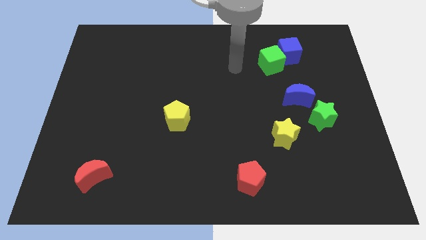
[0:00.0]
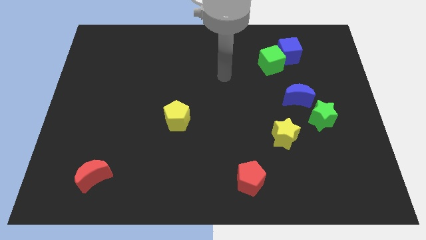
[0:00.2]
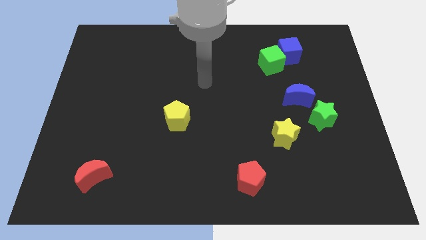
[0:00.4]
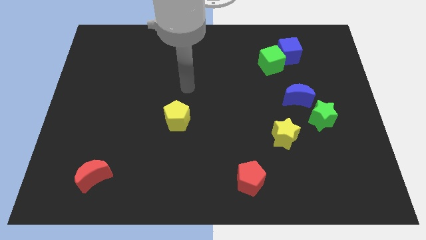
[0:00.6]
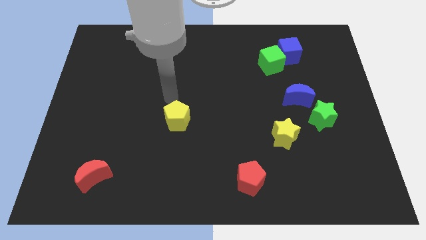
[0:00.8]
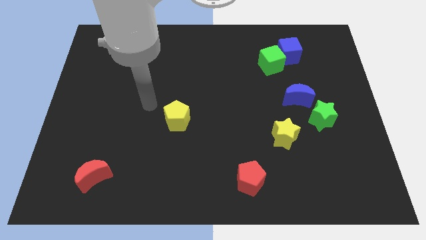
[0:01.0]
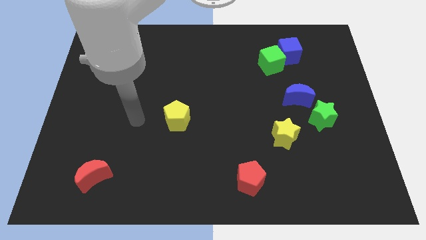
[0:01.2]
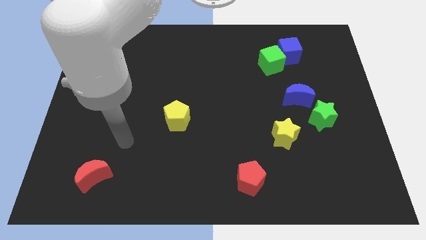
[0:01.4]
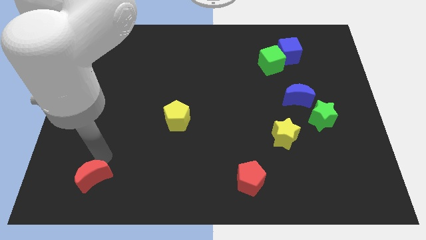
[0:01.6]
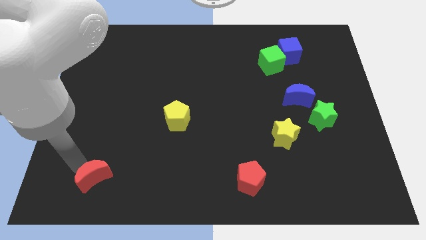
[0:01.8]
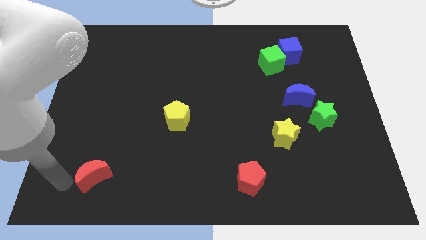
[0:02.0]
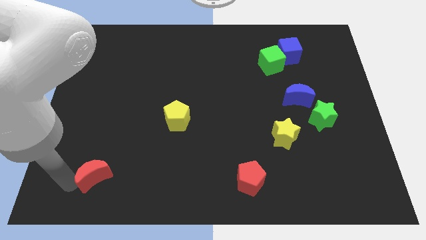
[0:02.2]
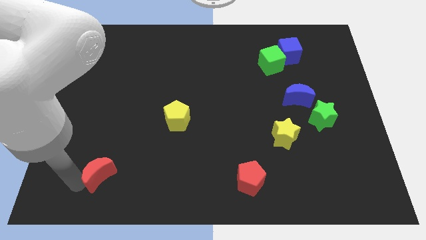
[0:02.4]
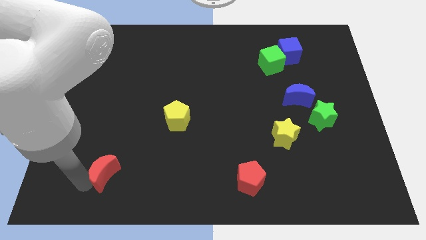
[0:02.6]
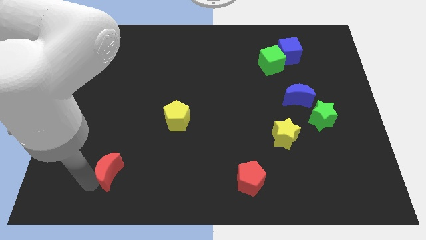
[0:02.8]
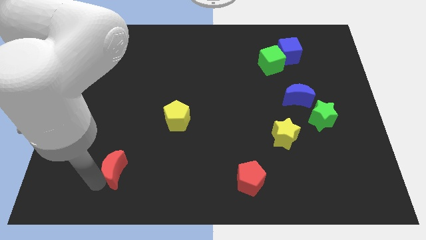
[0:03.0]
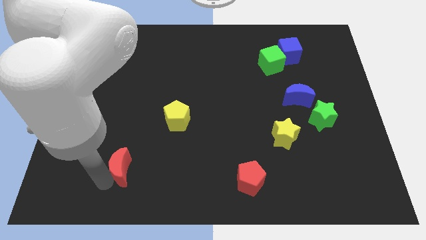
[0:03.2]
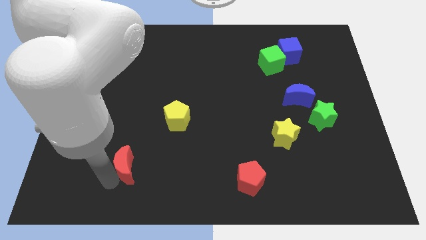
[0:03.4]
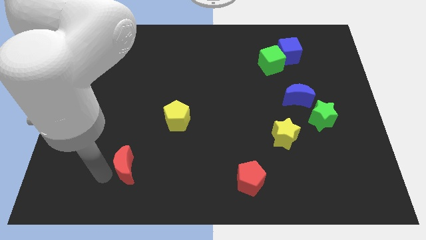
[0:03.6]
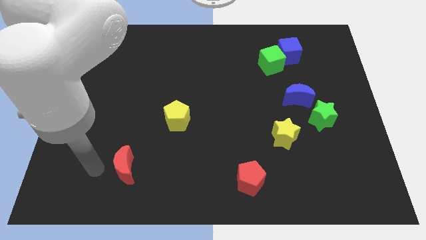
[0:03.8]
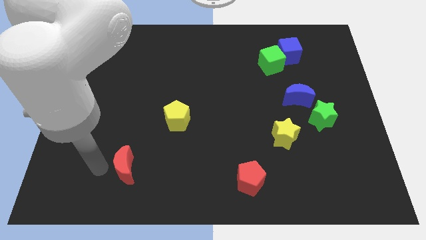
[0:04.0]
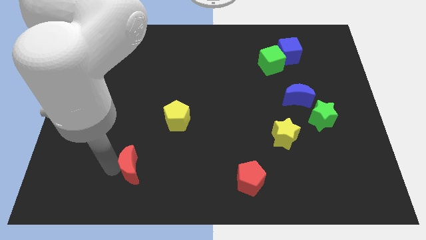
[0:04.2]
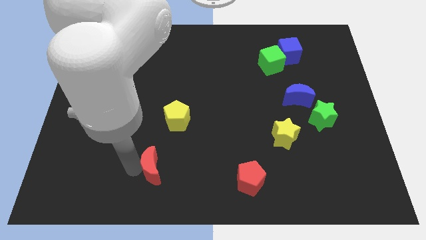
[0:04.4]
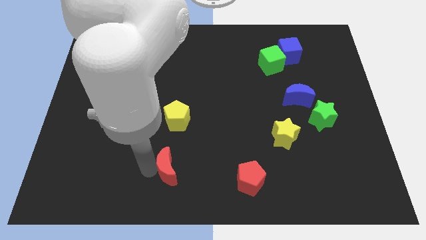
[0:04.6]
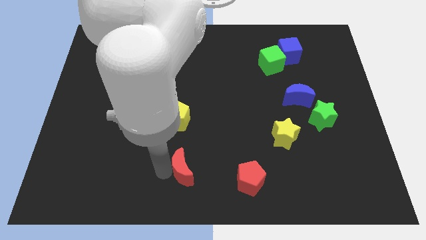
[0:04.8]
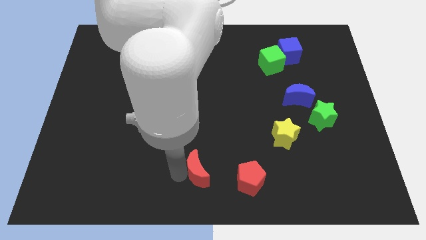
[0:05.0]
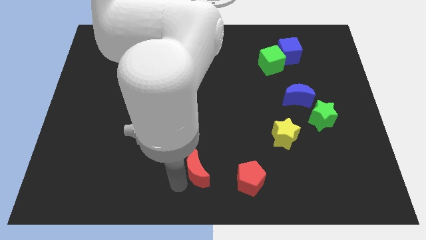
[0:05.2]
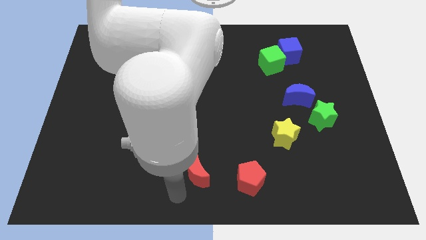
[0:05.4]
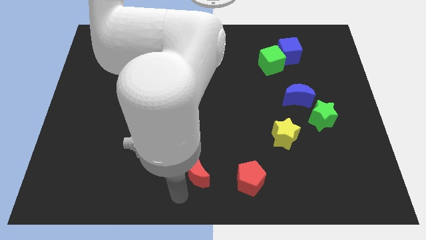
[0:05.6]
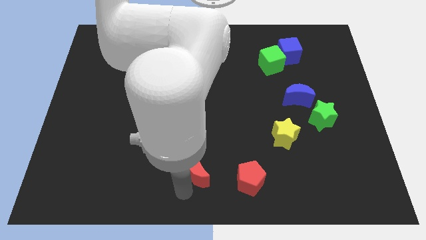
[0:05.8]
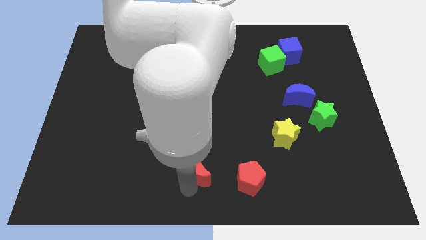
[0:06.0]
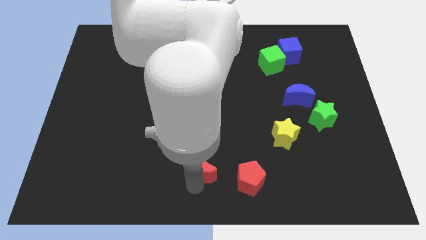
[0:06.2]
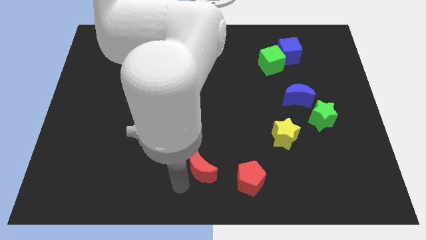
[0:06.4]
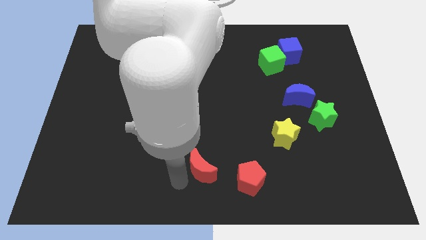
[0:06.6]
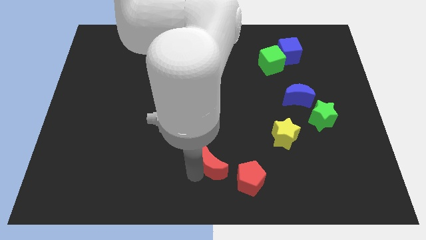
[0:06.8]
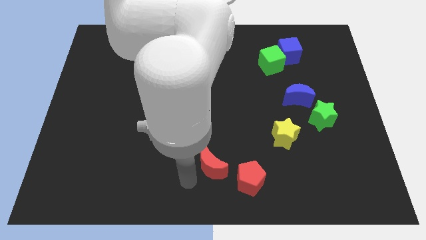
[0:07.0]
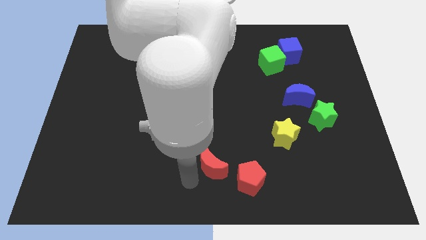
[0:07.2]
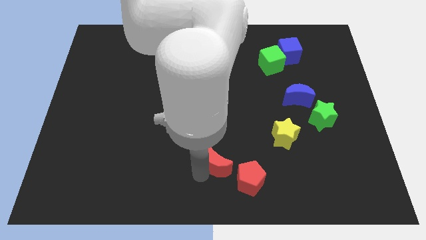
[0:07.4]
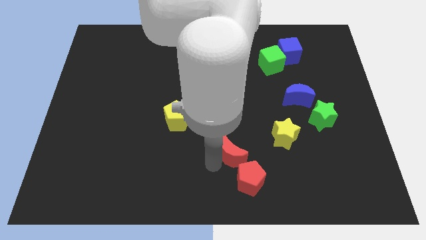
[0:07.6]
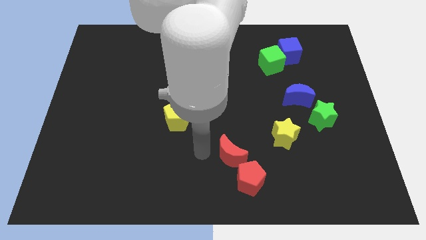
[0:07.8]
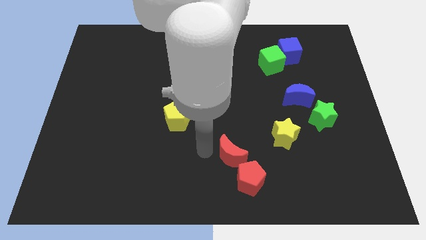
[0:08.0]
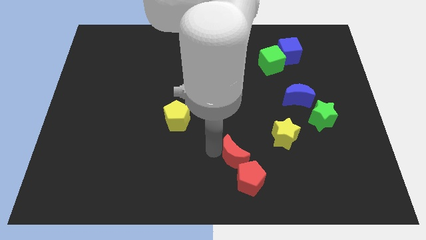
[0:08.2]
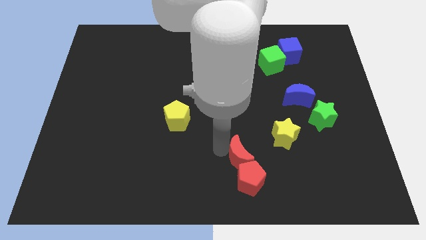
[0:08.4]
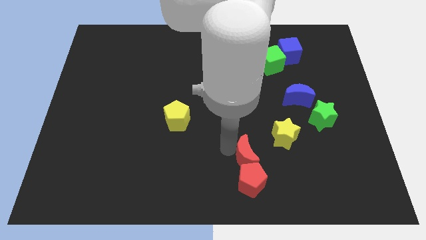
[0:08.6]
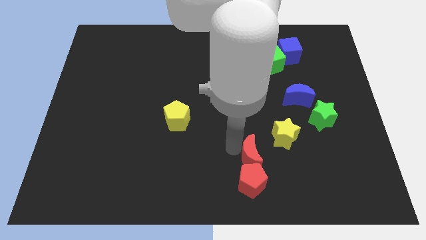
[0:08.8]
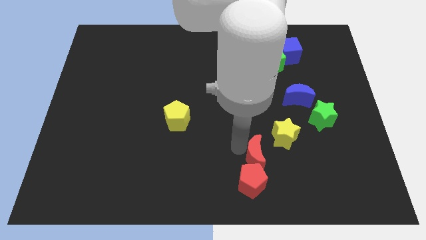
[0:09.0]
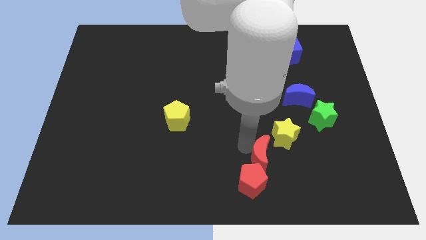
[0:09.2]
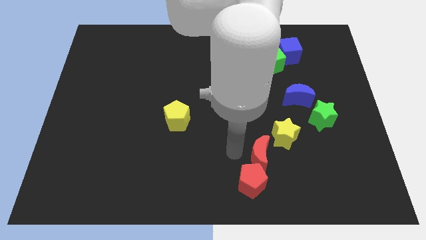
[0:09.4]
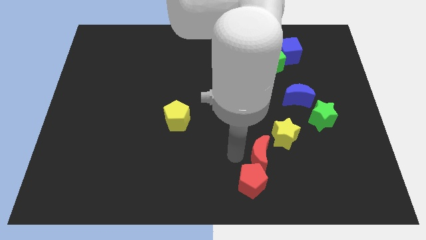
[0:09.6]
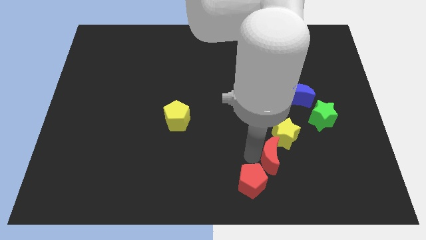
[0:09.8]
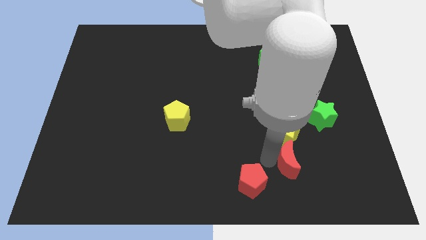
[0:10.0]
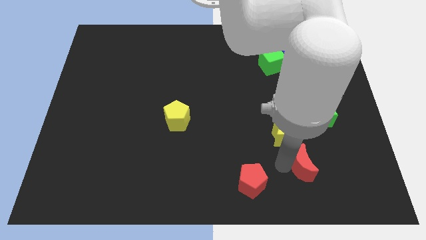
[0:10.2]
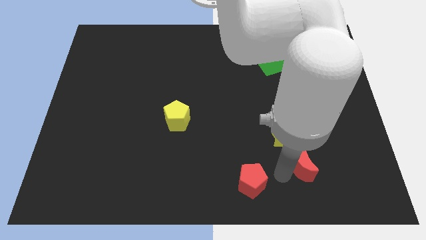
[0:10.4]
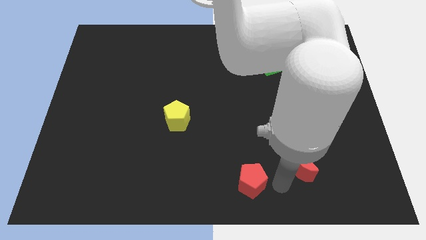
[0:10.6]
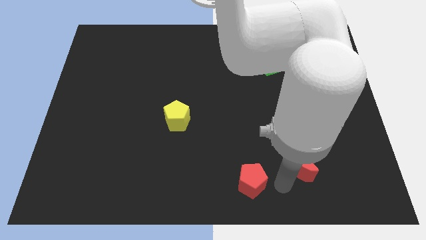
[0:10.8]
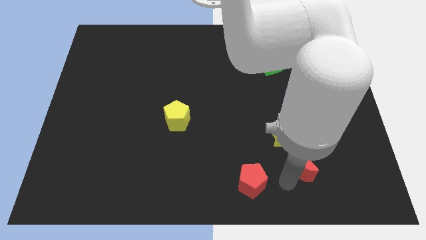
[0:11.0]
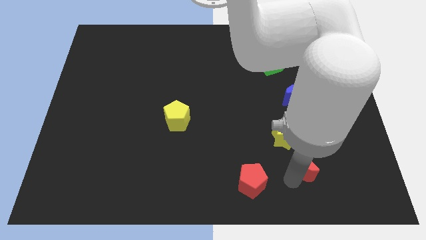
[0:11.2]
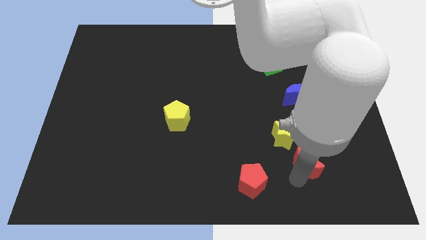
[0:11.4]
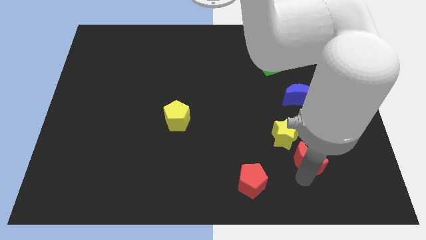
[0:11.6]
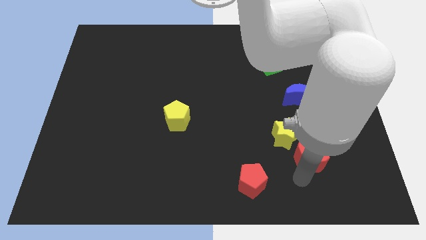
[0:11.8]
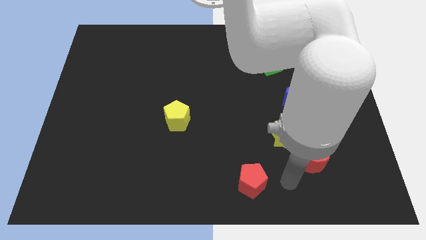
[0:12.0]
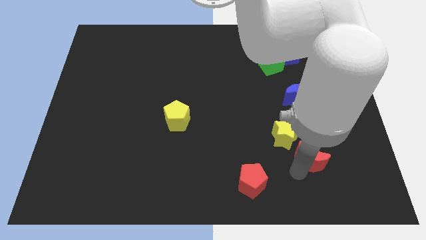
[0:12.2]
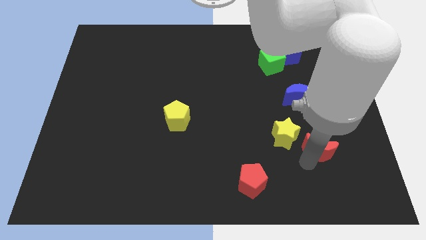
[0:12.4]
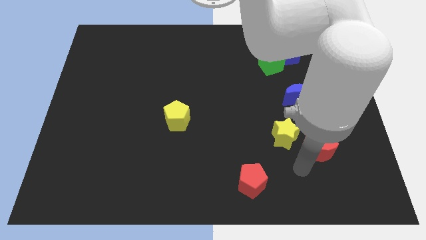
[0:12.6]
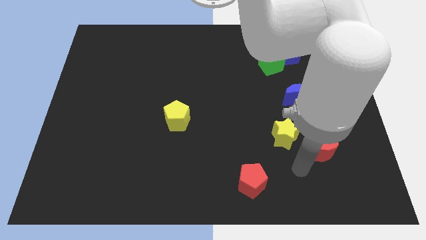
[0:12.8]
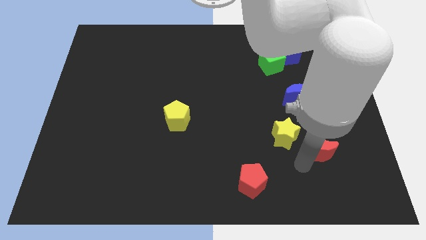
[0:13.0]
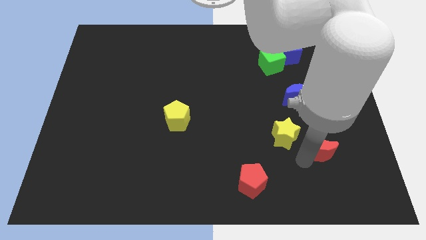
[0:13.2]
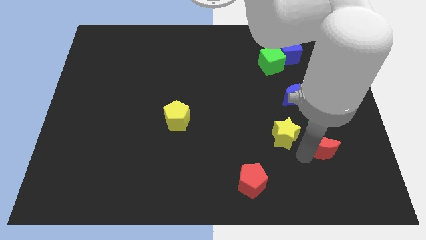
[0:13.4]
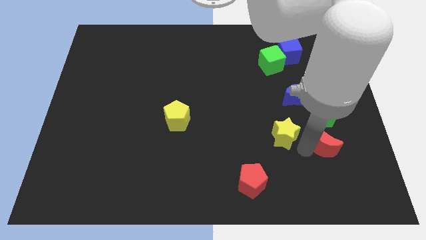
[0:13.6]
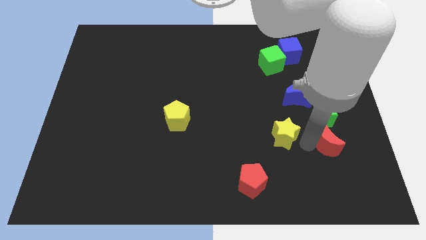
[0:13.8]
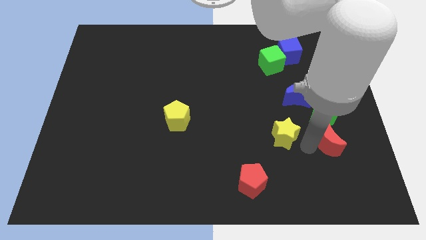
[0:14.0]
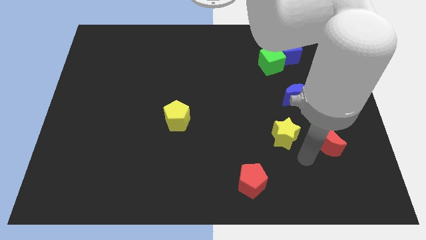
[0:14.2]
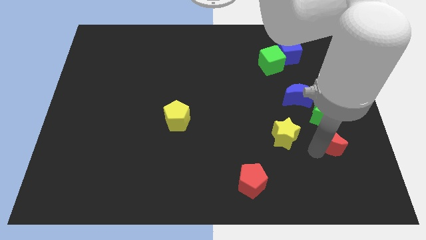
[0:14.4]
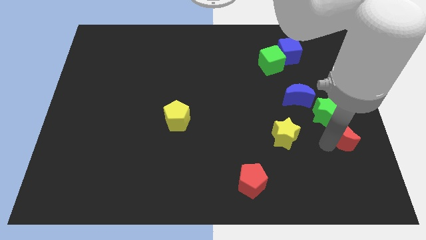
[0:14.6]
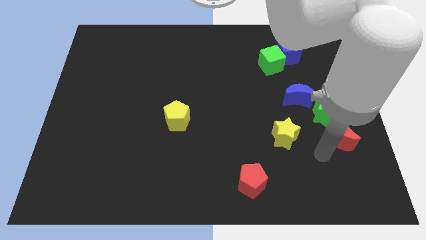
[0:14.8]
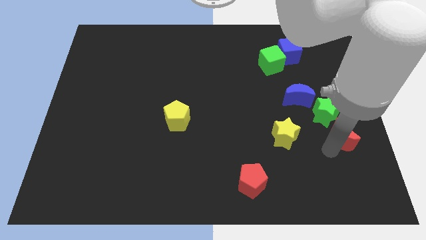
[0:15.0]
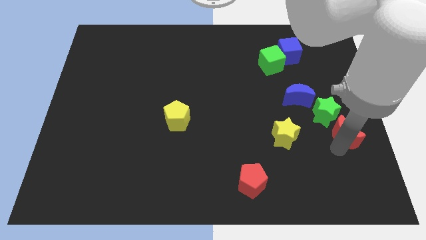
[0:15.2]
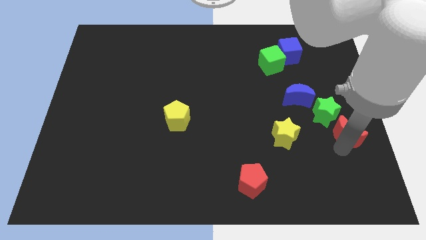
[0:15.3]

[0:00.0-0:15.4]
push the red moon to the right side
